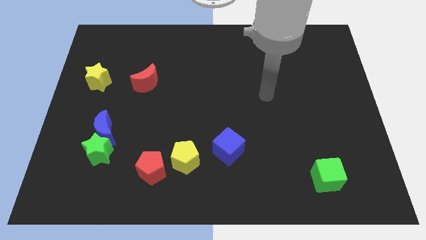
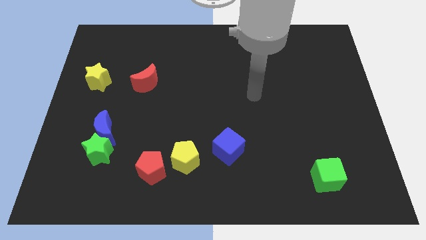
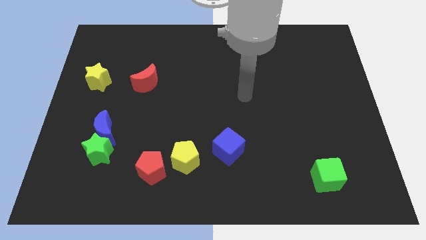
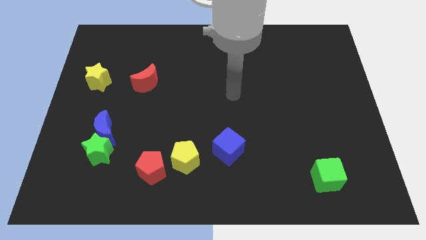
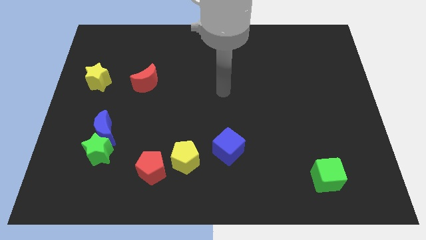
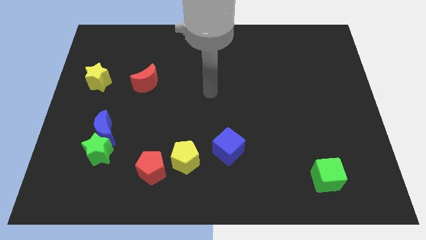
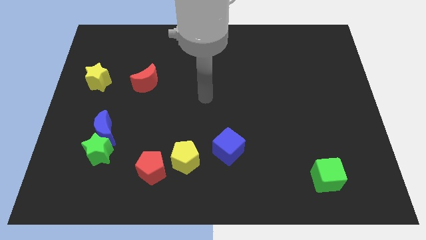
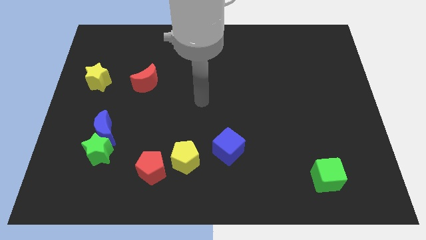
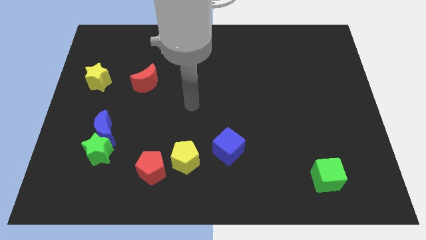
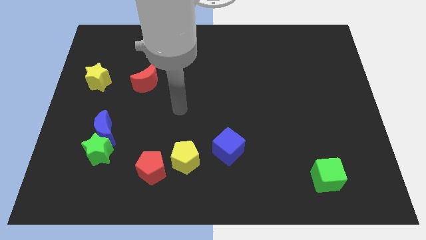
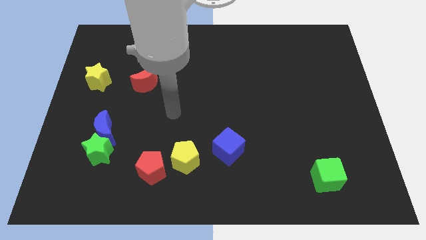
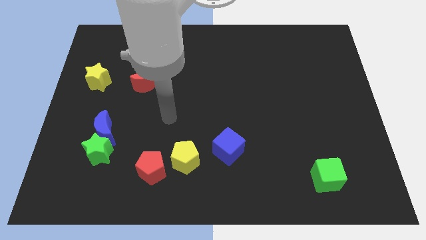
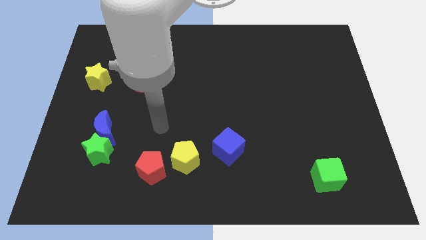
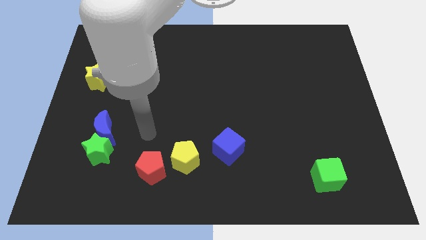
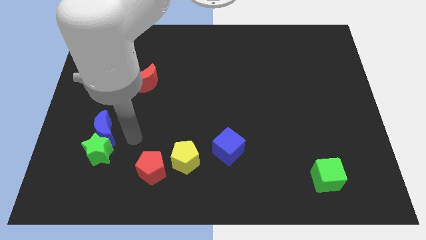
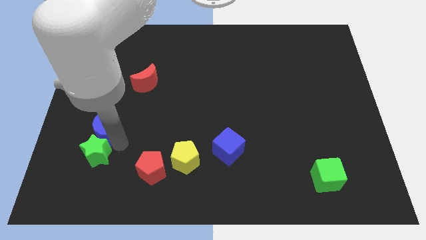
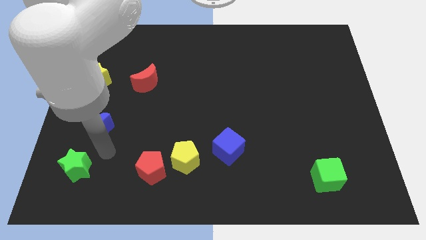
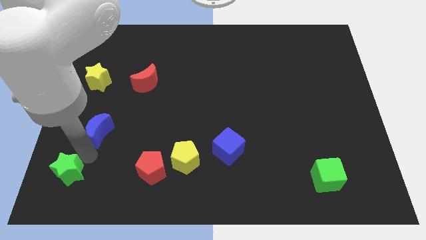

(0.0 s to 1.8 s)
move the blue moon away from the green star

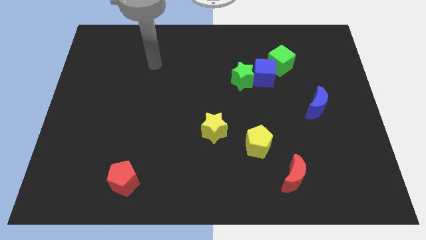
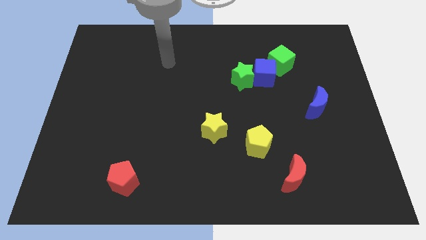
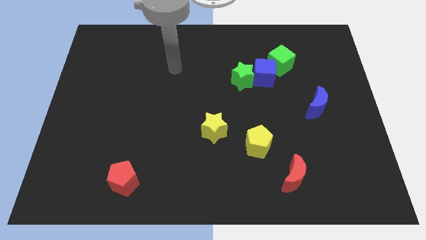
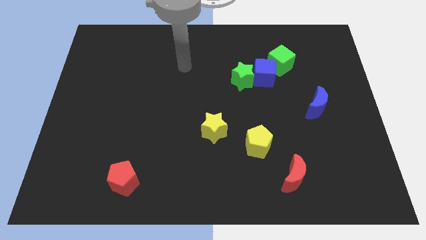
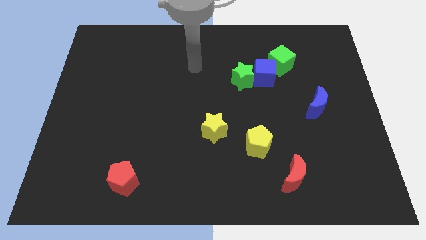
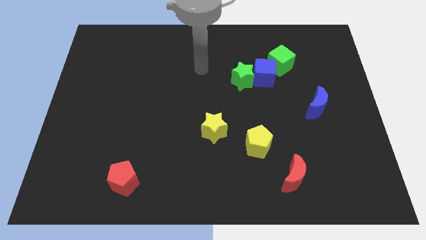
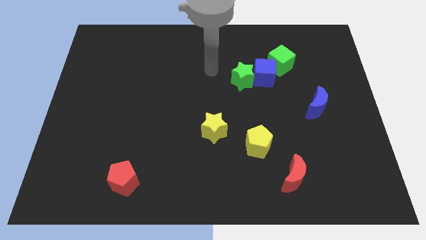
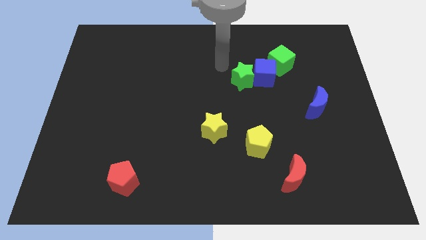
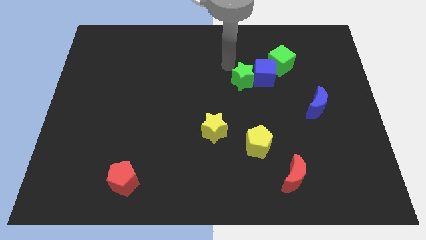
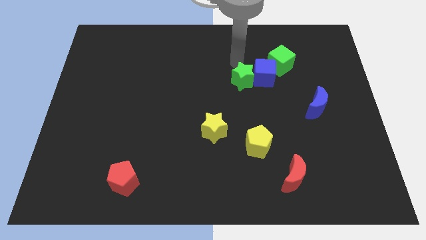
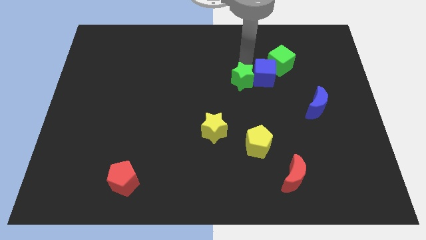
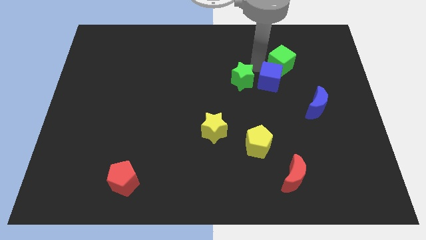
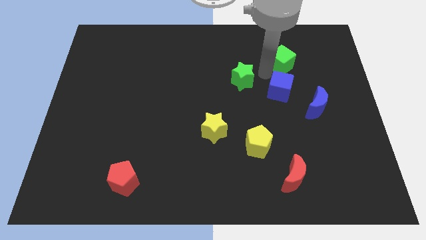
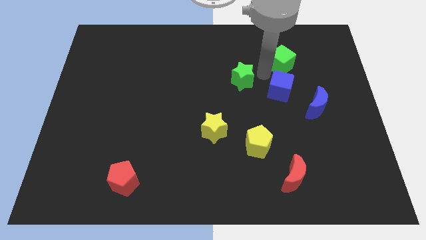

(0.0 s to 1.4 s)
separate the green star from the blue cube

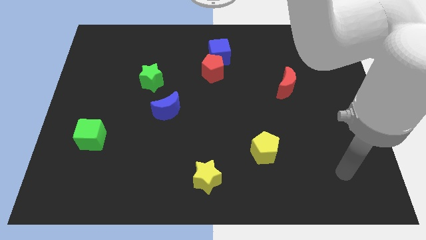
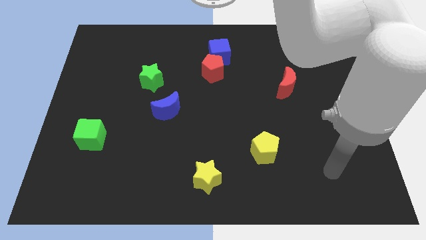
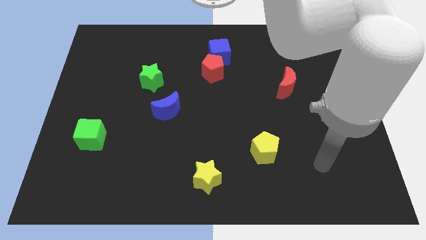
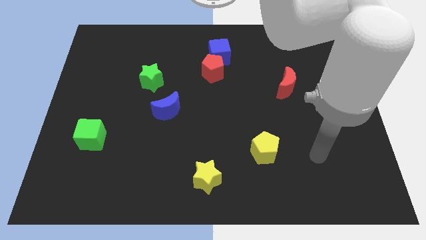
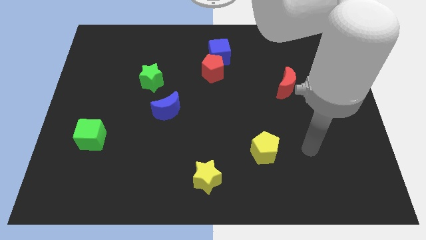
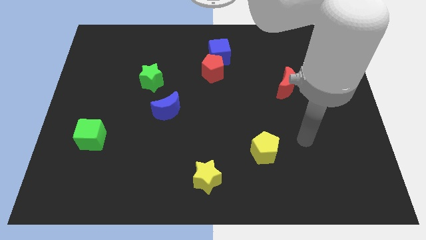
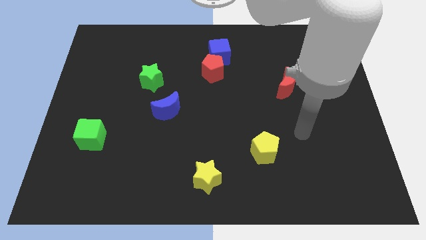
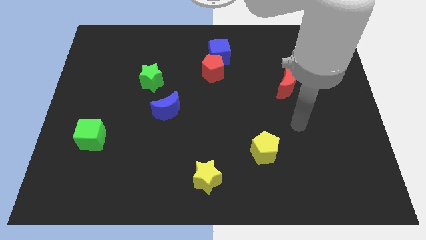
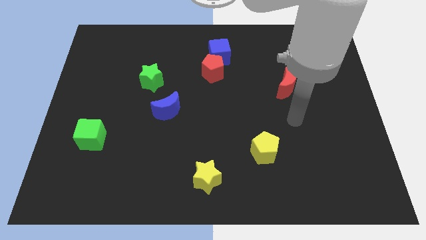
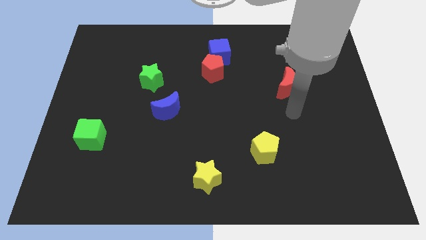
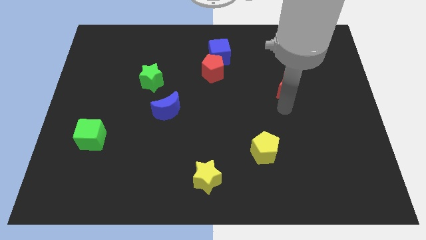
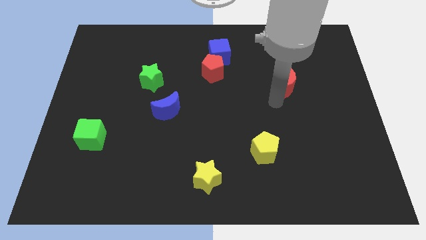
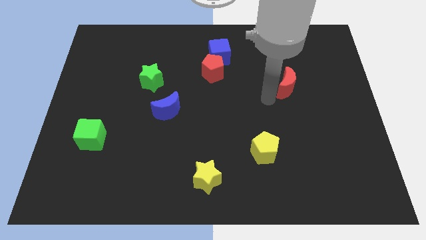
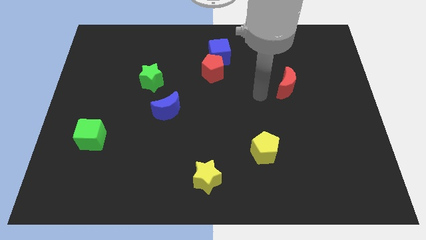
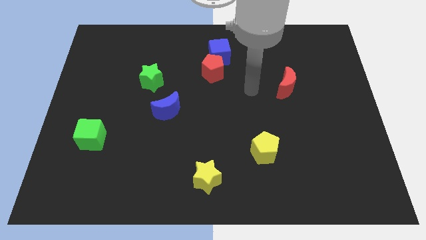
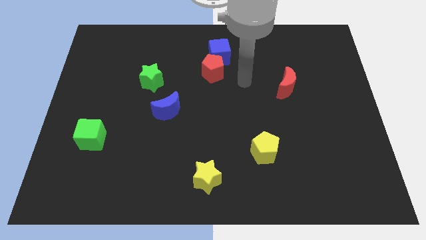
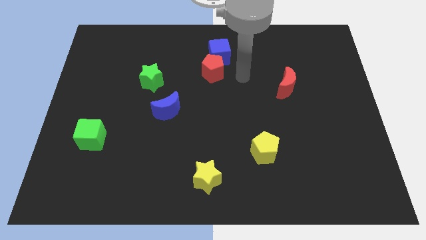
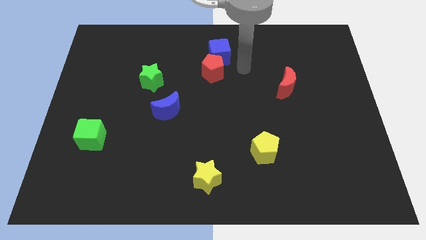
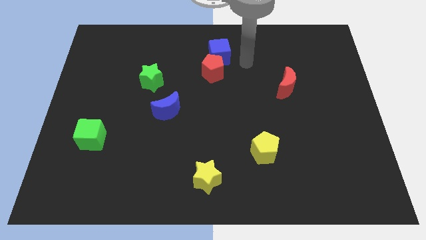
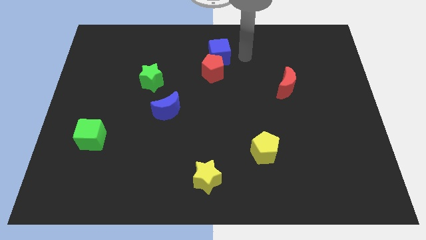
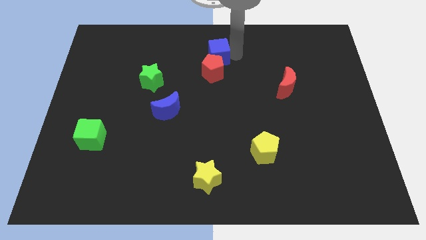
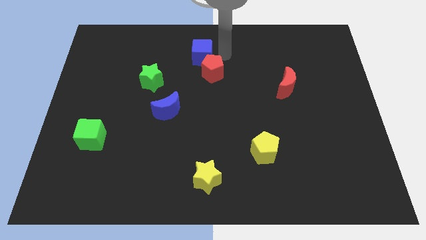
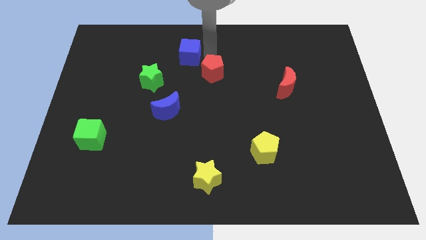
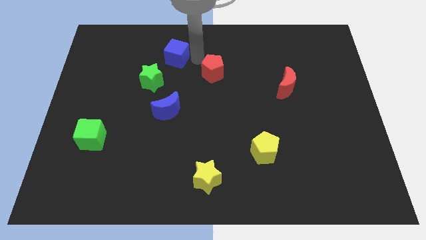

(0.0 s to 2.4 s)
separate the red pentagon from the blue cube

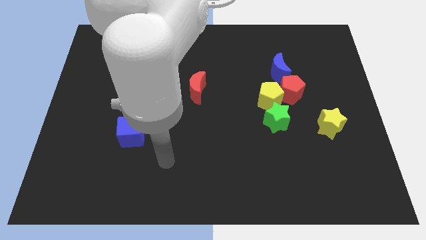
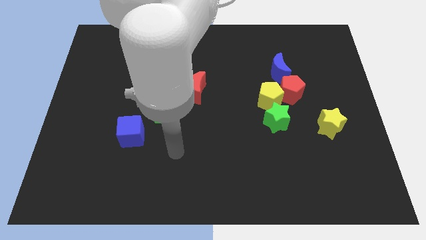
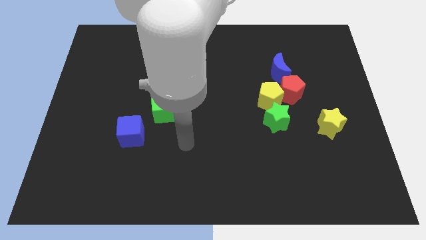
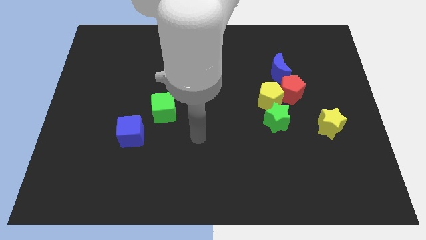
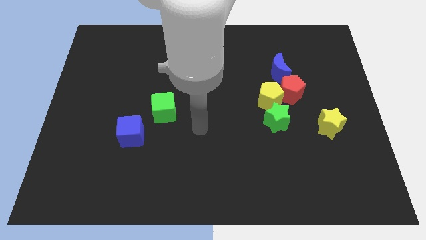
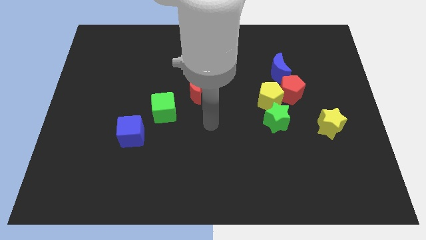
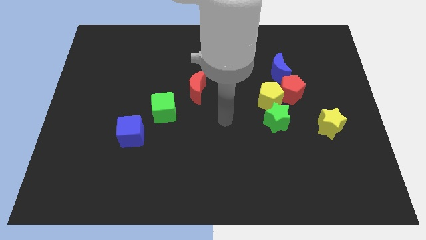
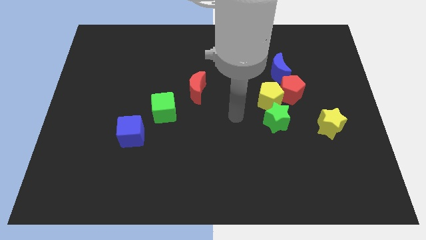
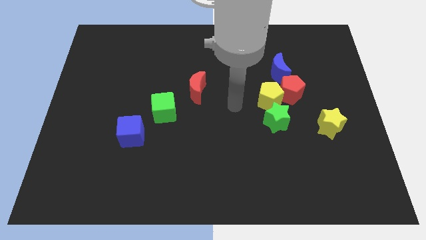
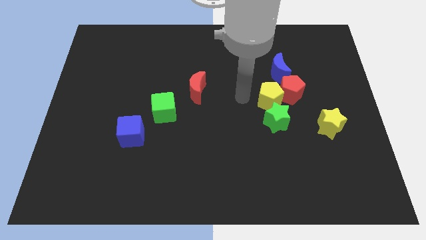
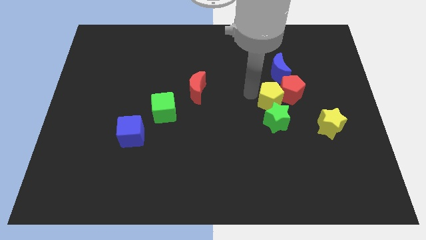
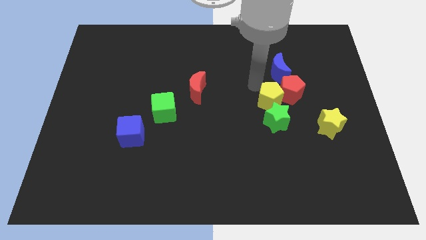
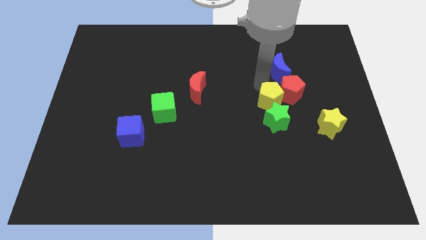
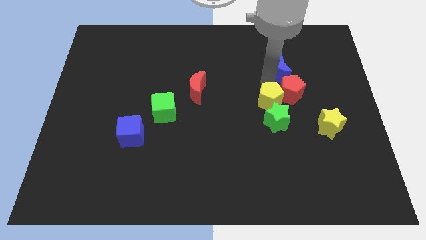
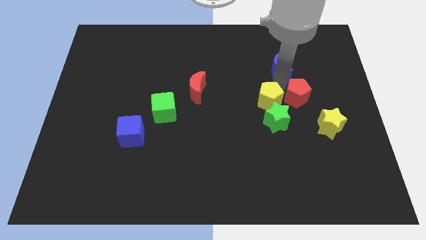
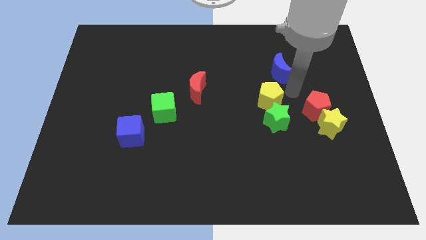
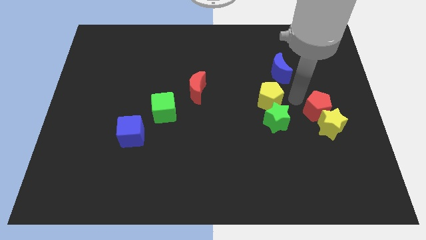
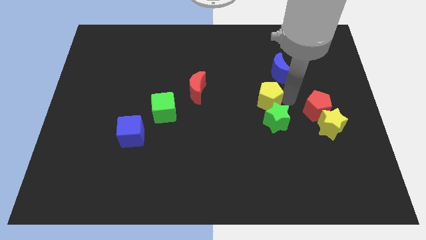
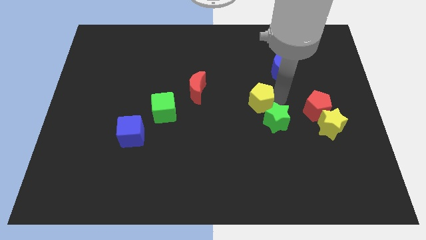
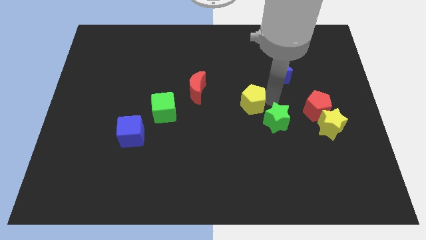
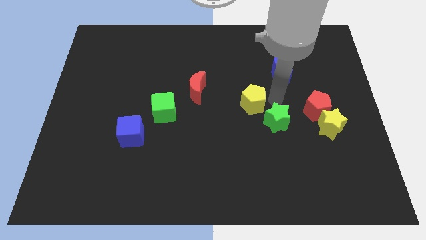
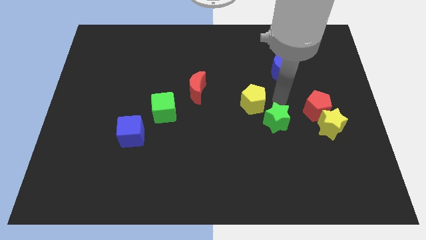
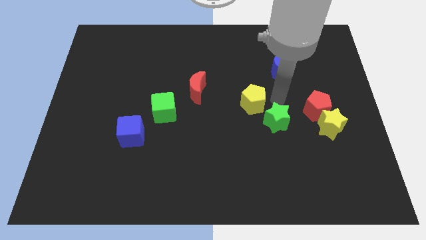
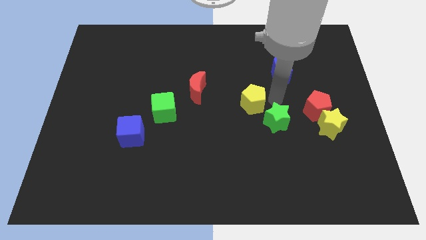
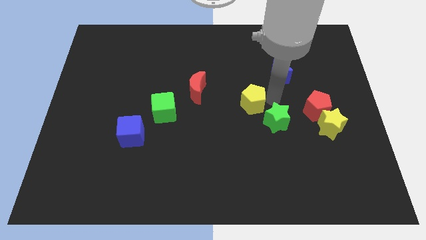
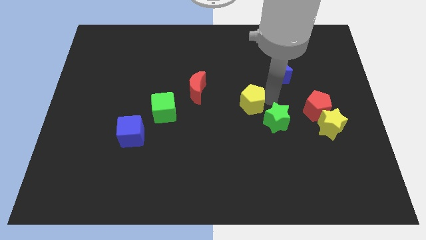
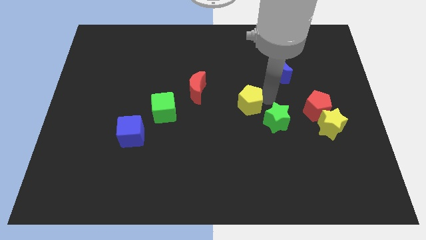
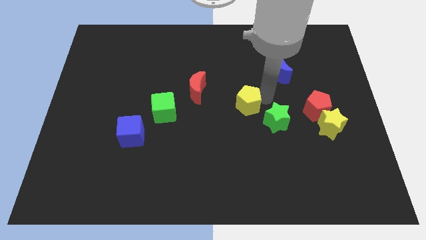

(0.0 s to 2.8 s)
move the yellow pentagon away from the red pentagon, green star, and blue moon

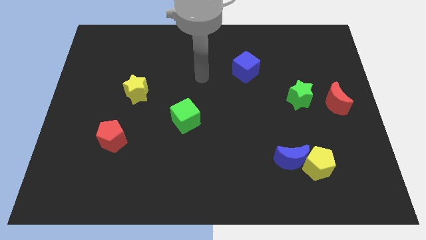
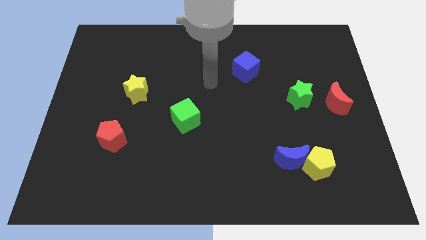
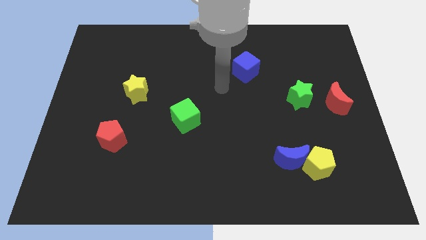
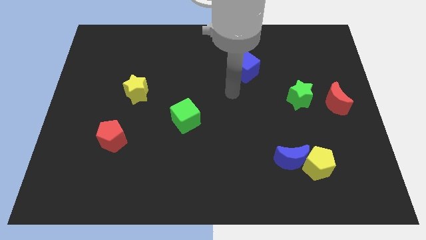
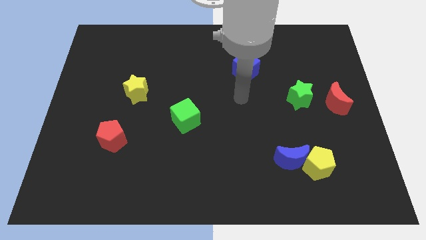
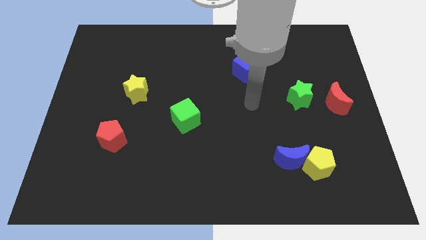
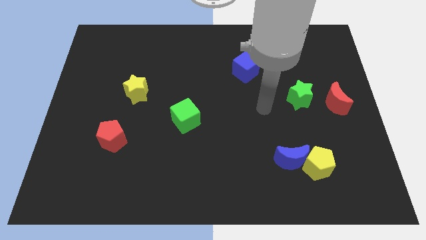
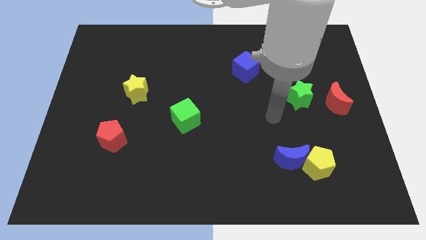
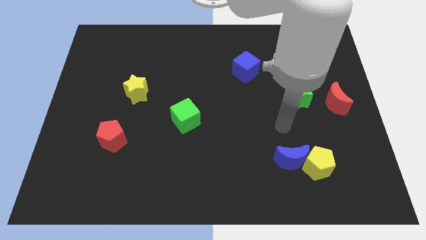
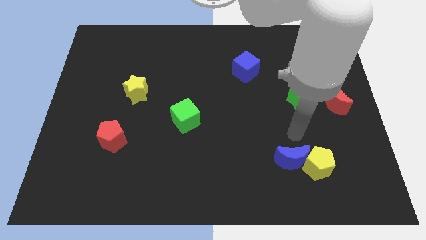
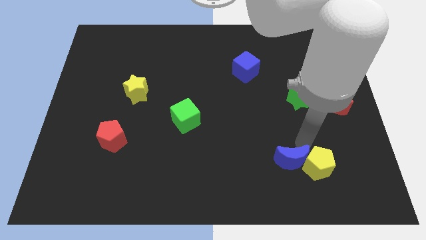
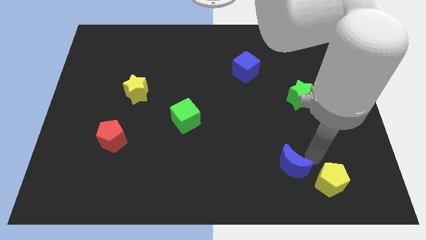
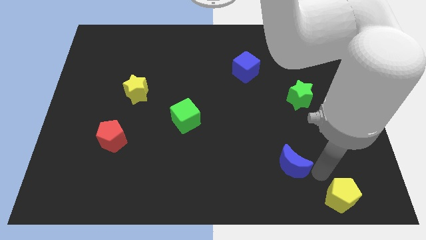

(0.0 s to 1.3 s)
pull the blue moon apart from the yellow pentagon
